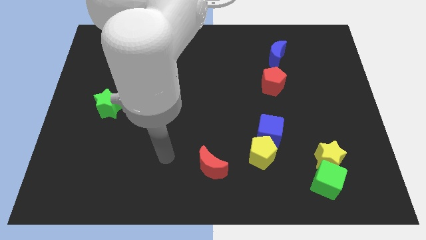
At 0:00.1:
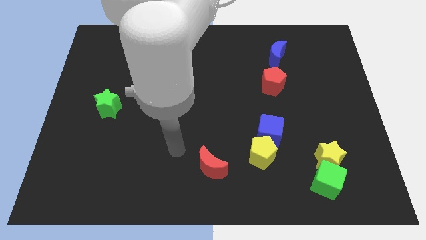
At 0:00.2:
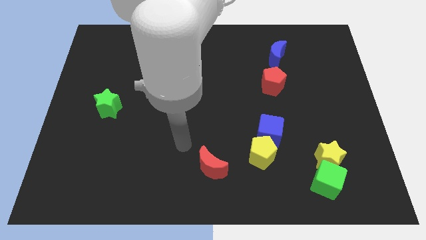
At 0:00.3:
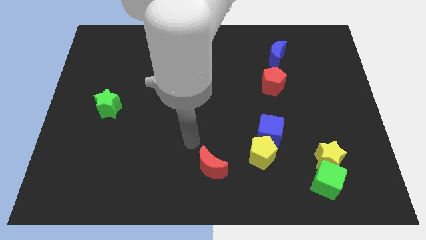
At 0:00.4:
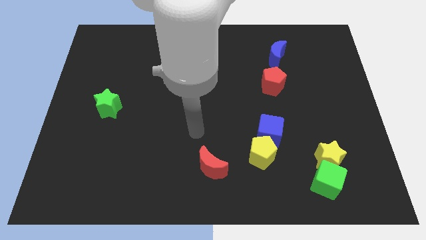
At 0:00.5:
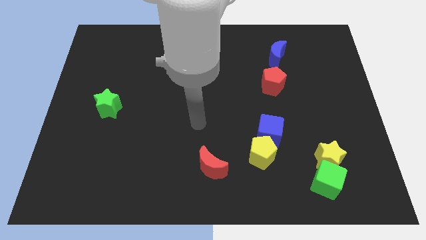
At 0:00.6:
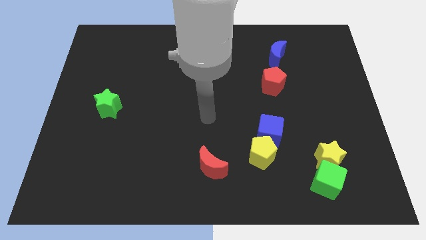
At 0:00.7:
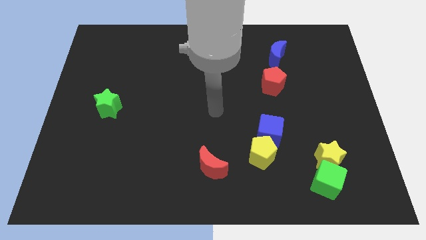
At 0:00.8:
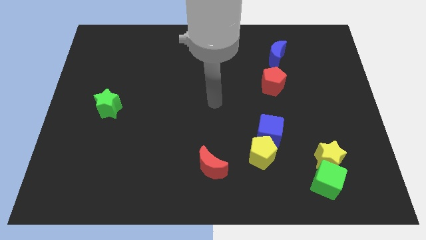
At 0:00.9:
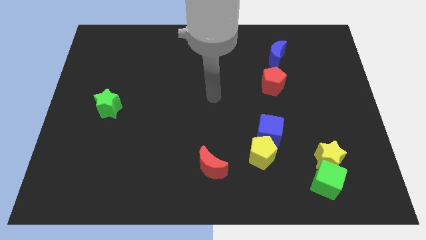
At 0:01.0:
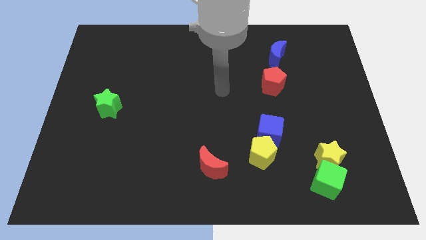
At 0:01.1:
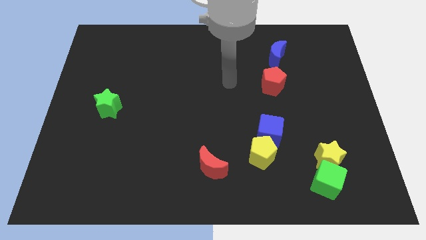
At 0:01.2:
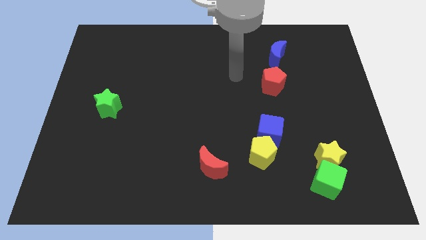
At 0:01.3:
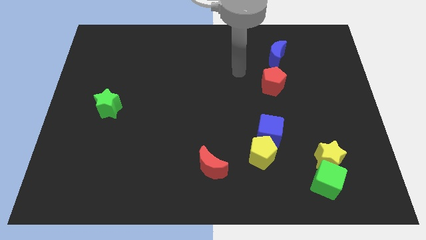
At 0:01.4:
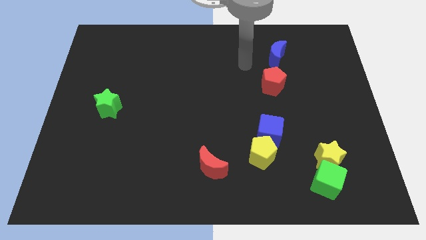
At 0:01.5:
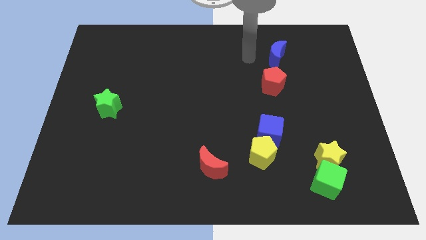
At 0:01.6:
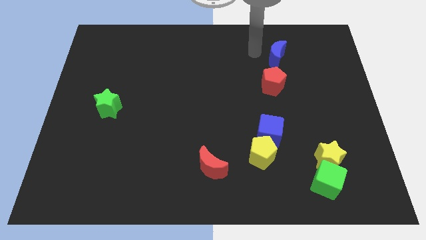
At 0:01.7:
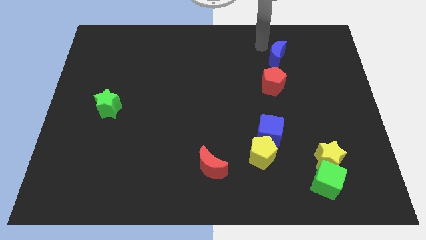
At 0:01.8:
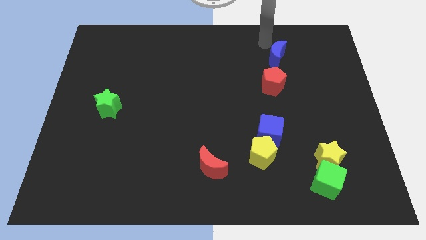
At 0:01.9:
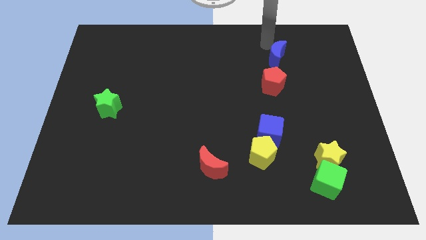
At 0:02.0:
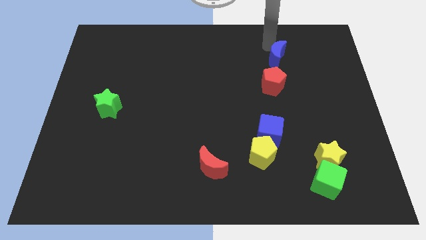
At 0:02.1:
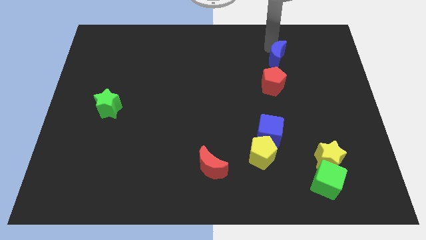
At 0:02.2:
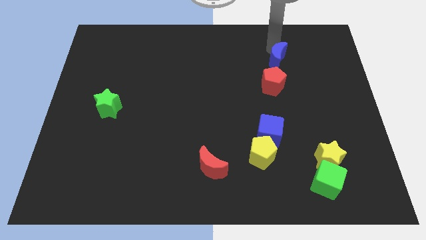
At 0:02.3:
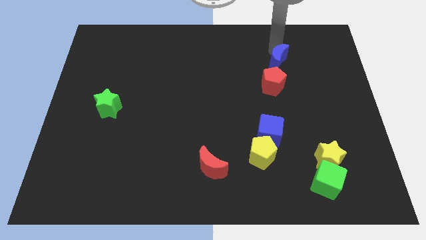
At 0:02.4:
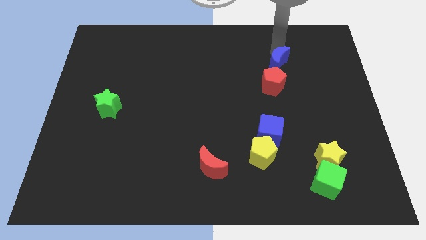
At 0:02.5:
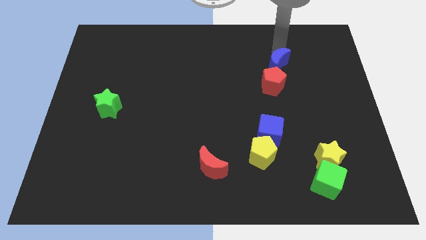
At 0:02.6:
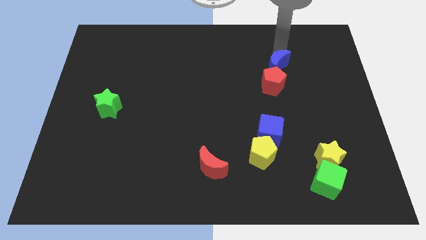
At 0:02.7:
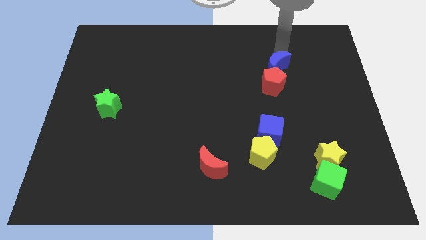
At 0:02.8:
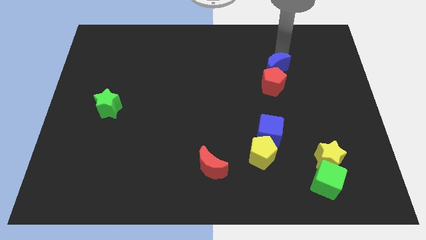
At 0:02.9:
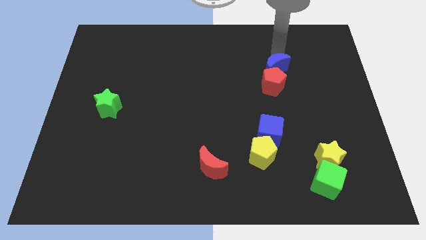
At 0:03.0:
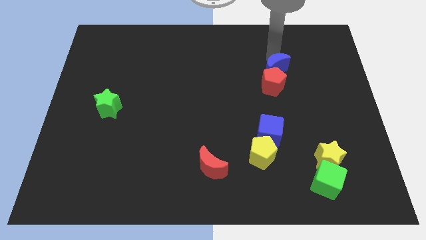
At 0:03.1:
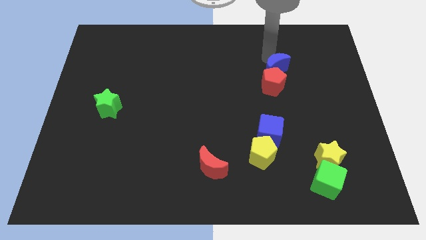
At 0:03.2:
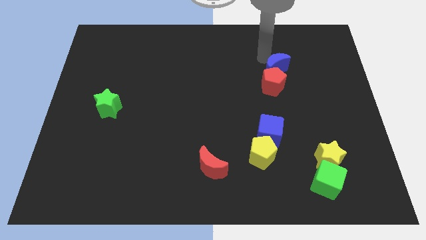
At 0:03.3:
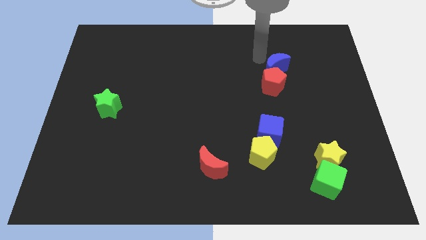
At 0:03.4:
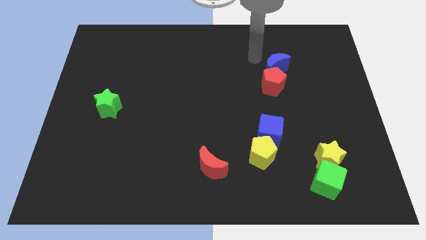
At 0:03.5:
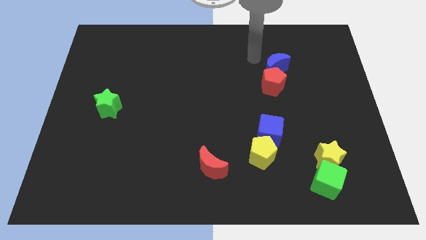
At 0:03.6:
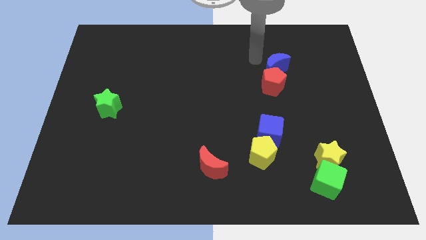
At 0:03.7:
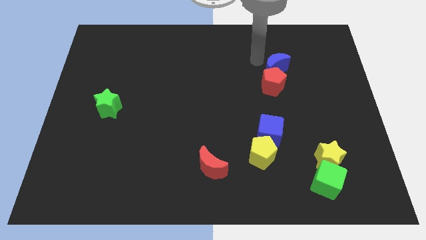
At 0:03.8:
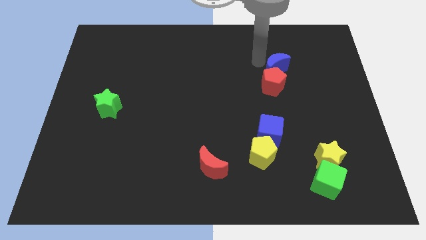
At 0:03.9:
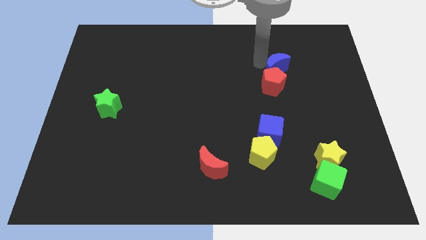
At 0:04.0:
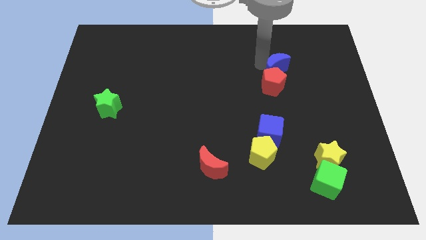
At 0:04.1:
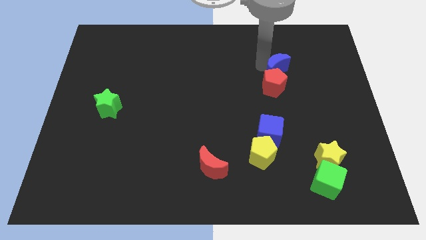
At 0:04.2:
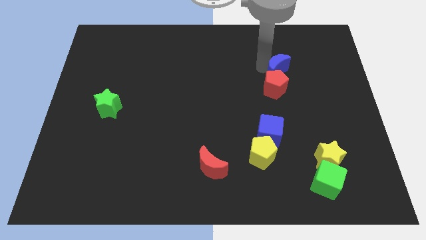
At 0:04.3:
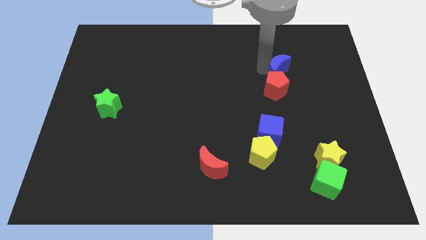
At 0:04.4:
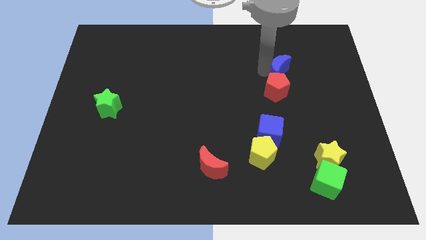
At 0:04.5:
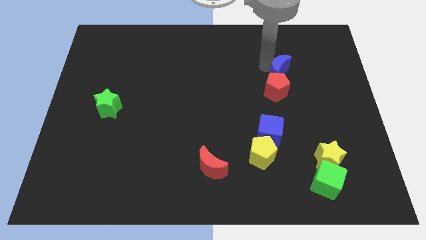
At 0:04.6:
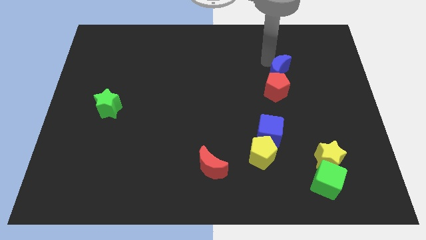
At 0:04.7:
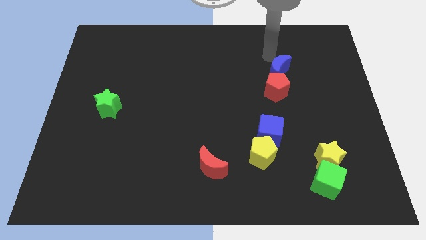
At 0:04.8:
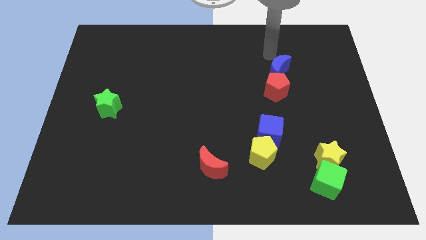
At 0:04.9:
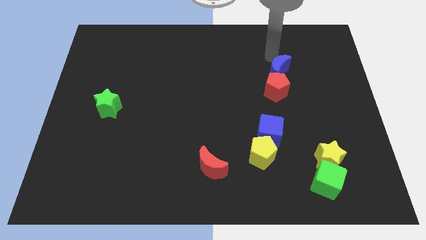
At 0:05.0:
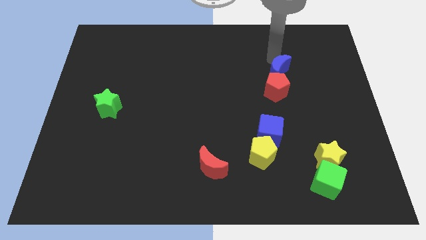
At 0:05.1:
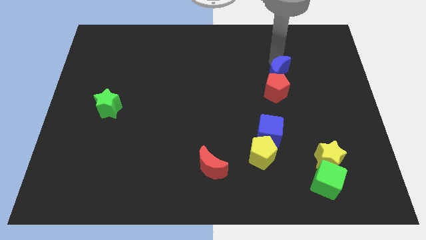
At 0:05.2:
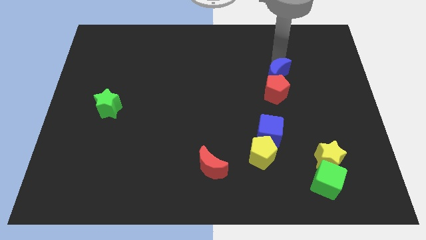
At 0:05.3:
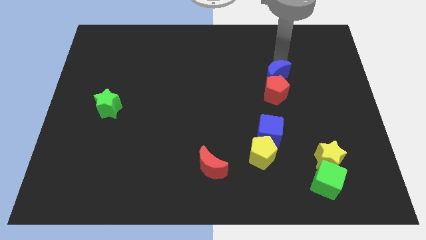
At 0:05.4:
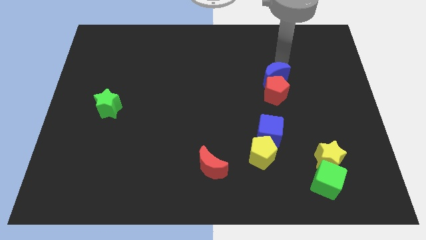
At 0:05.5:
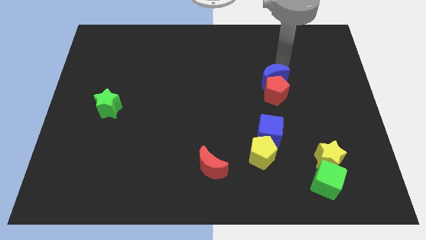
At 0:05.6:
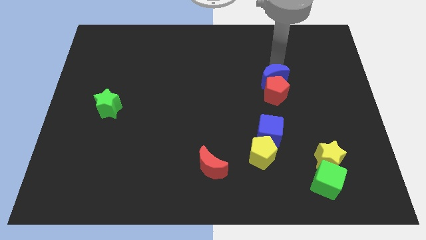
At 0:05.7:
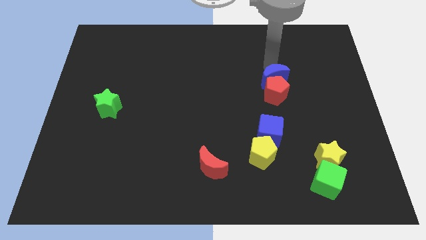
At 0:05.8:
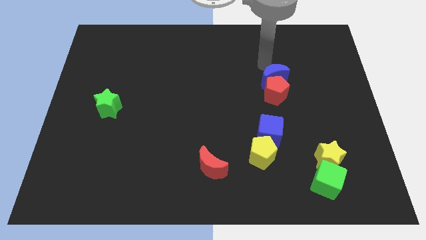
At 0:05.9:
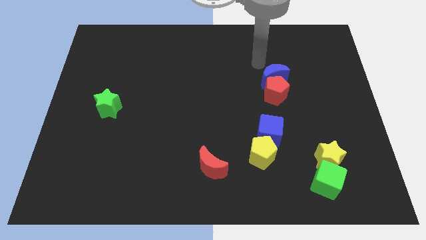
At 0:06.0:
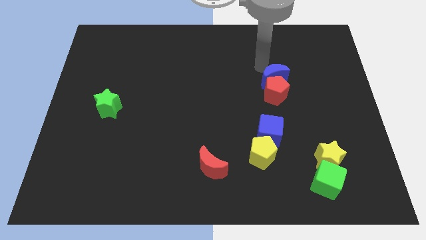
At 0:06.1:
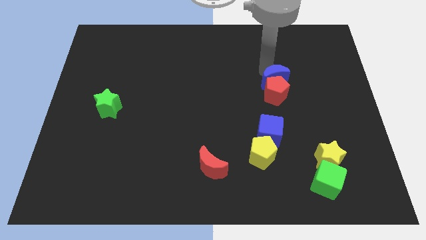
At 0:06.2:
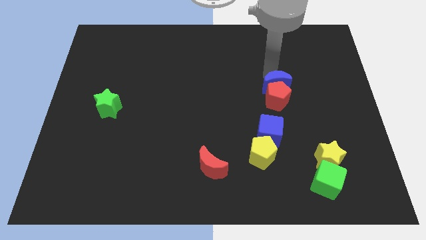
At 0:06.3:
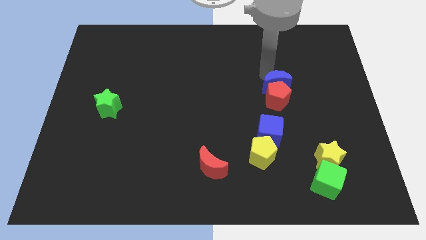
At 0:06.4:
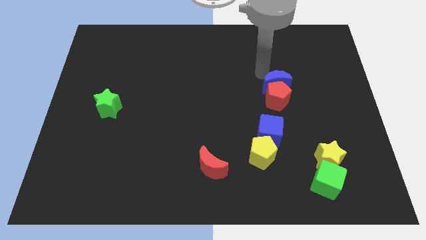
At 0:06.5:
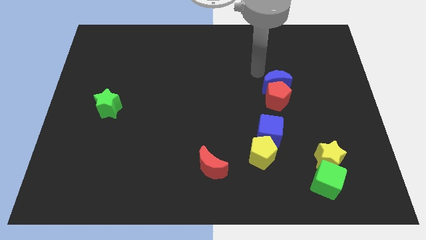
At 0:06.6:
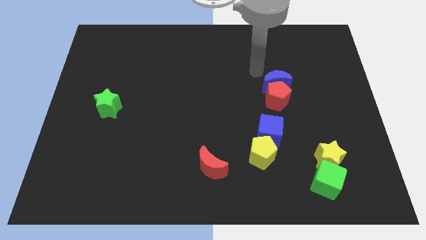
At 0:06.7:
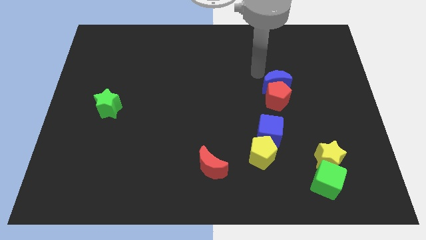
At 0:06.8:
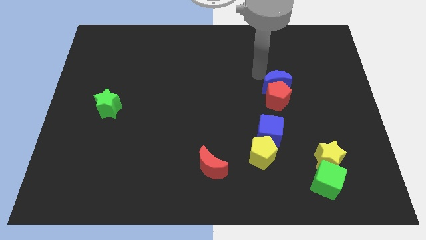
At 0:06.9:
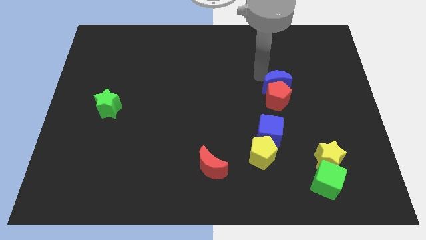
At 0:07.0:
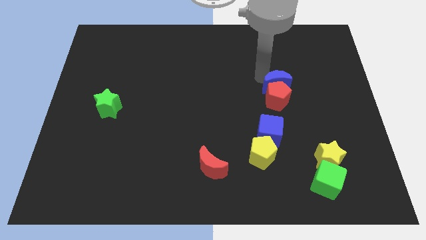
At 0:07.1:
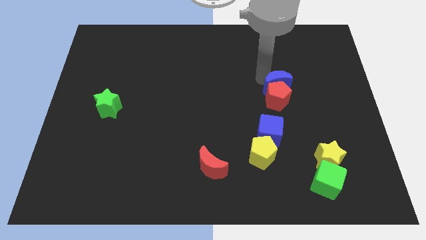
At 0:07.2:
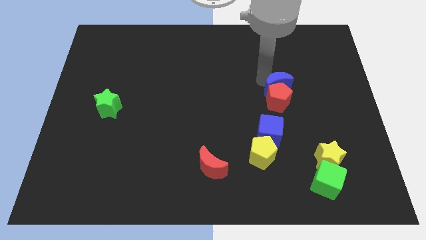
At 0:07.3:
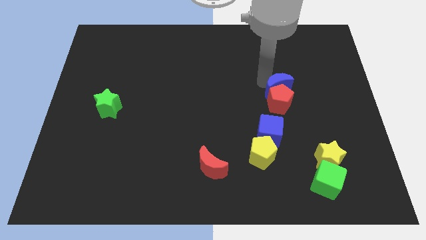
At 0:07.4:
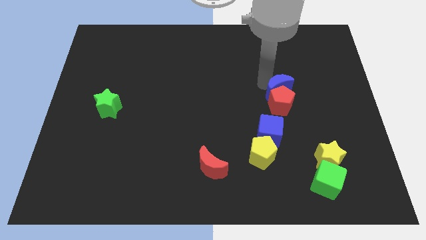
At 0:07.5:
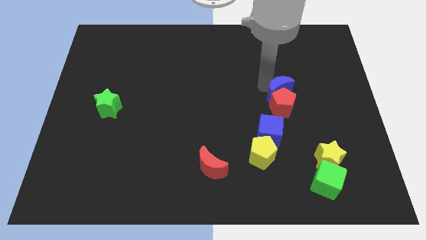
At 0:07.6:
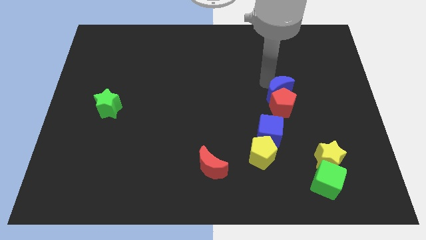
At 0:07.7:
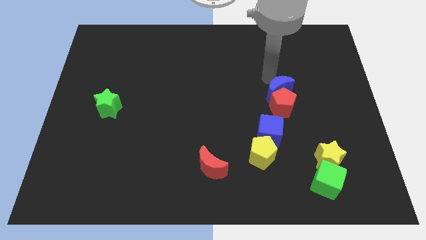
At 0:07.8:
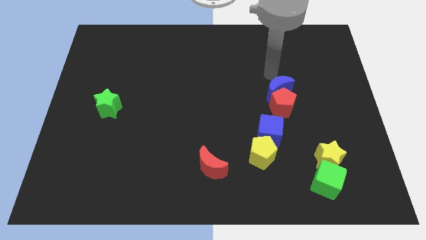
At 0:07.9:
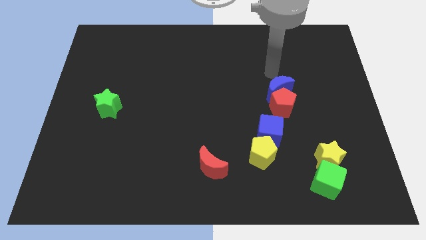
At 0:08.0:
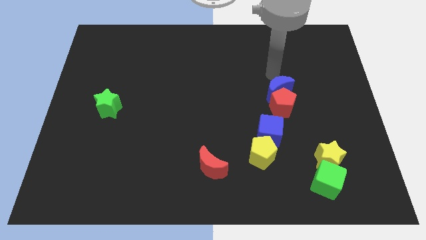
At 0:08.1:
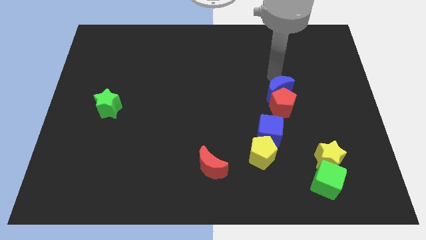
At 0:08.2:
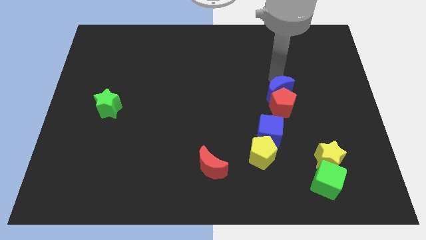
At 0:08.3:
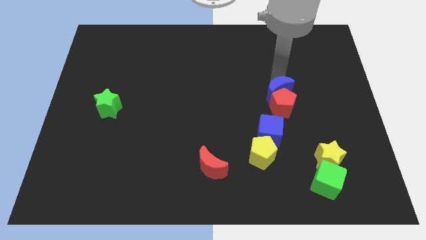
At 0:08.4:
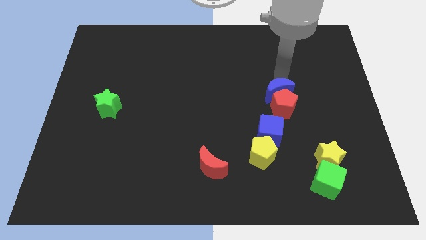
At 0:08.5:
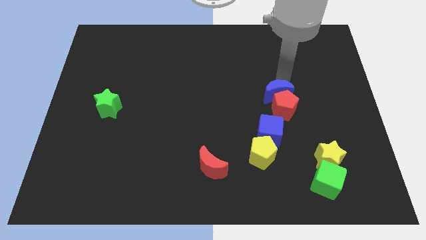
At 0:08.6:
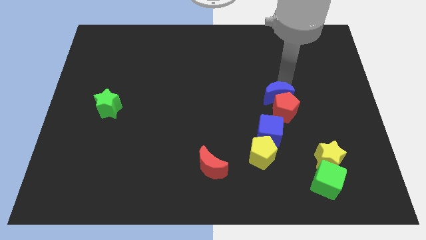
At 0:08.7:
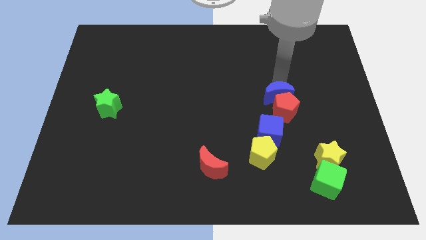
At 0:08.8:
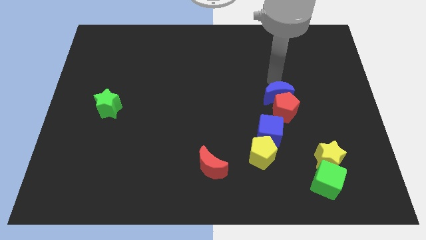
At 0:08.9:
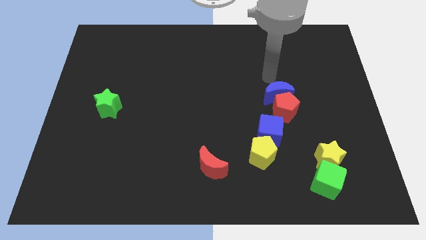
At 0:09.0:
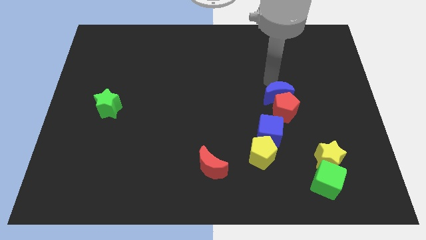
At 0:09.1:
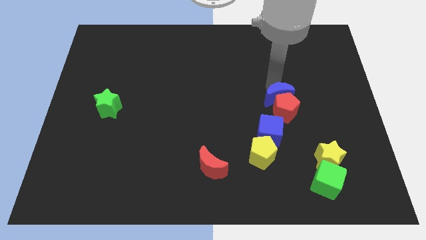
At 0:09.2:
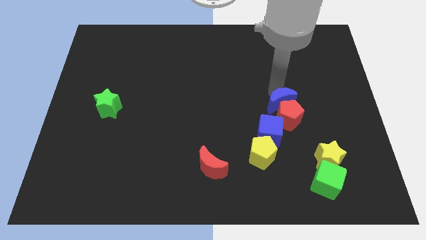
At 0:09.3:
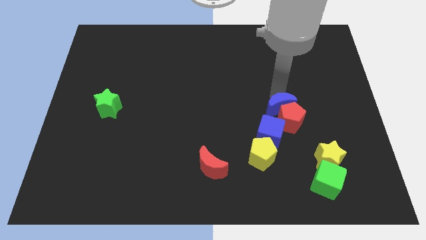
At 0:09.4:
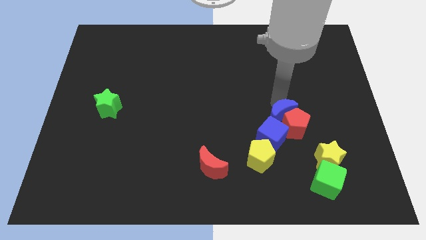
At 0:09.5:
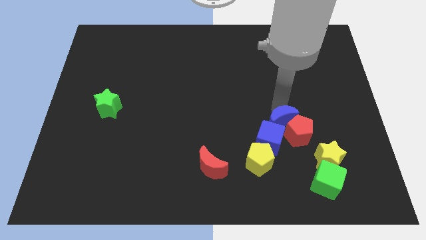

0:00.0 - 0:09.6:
slide the blue moon downwards
